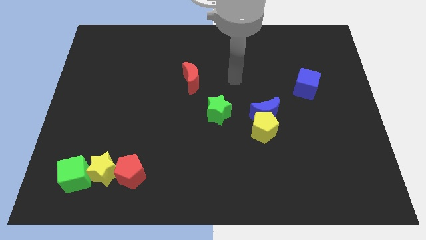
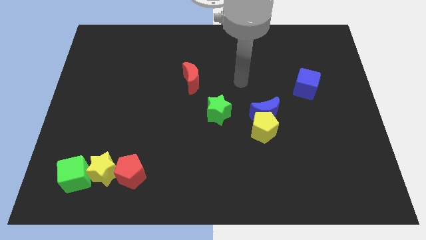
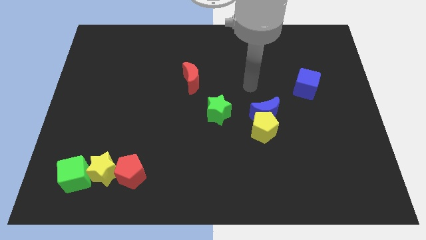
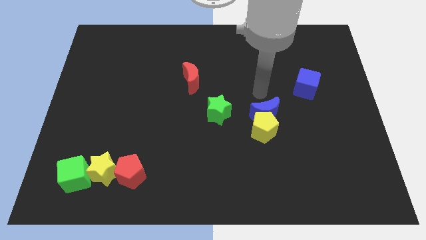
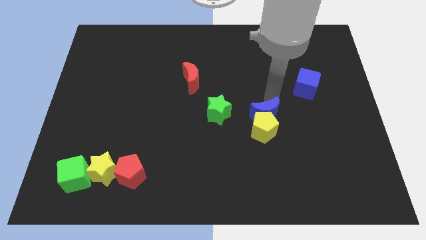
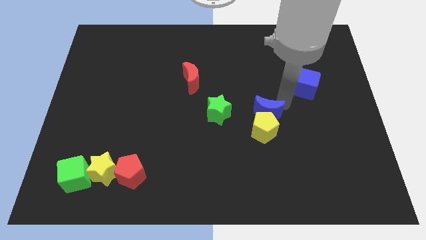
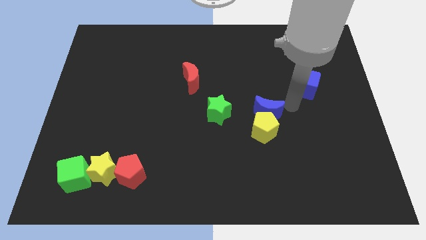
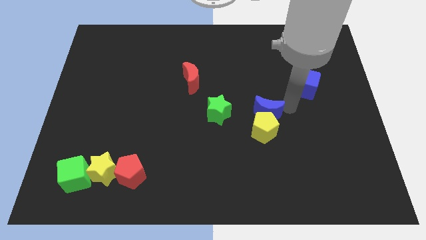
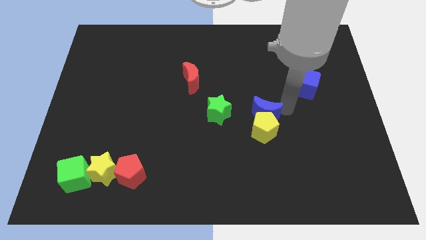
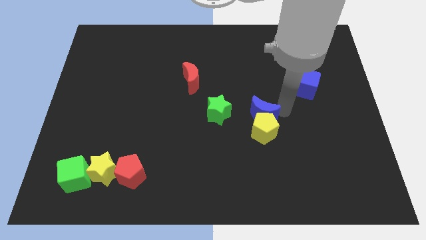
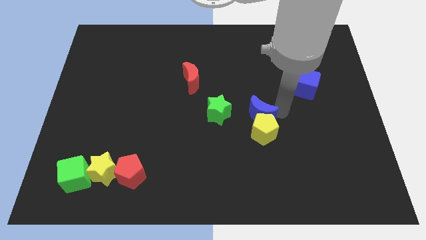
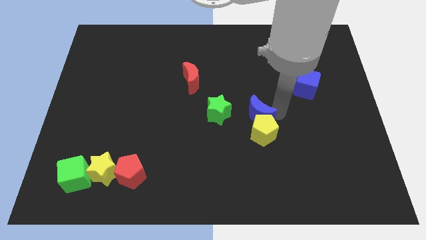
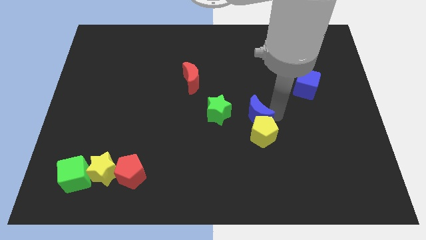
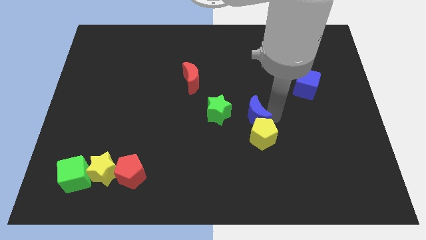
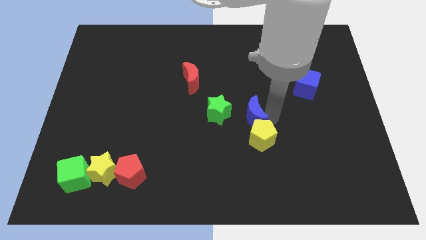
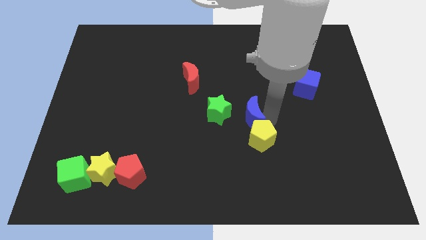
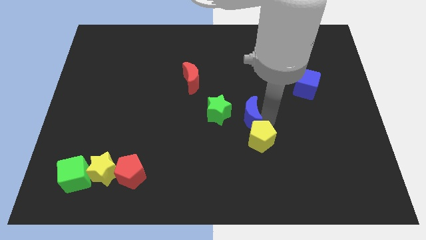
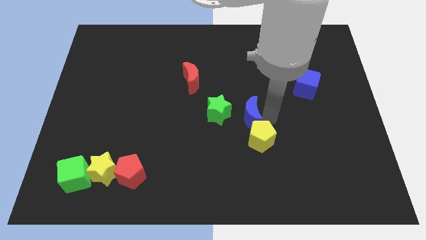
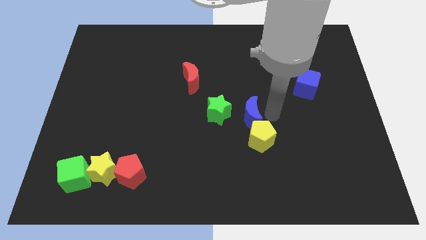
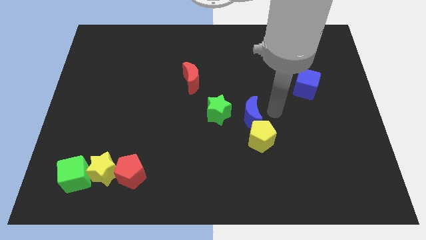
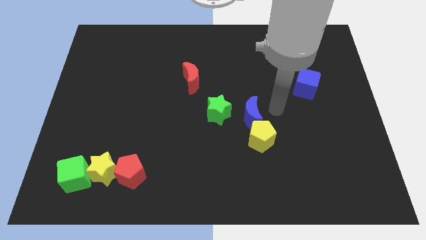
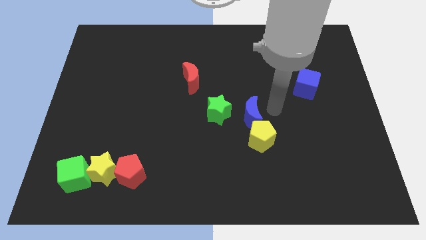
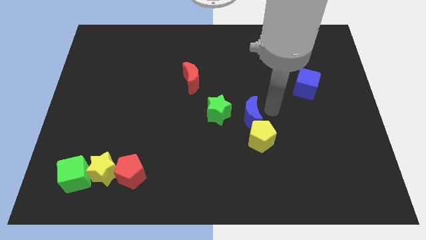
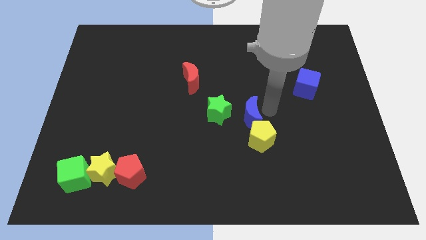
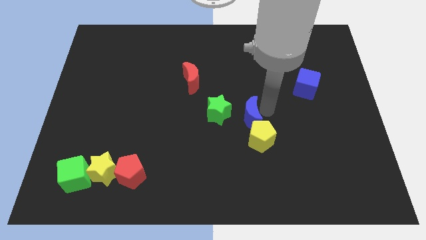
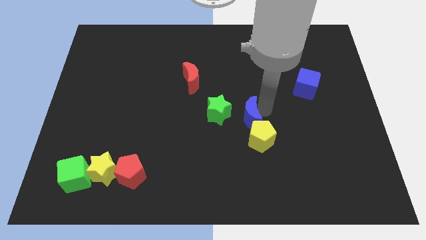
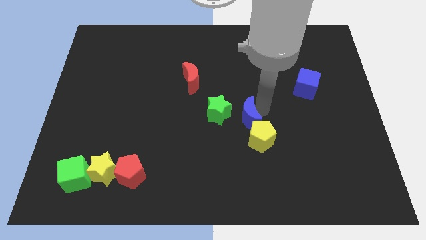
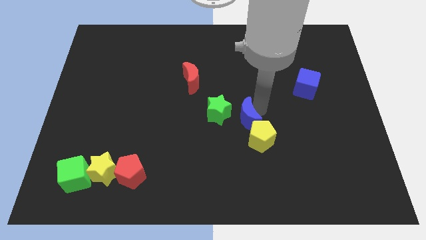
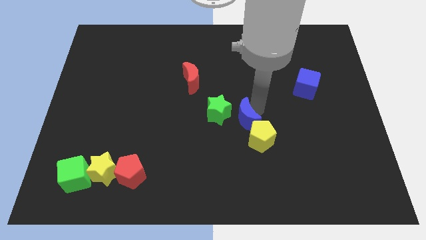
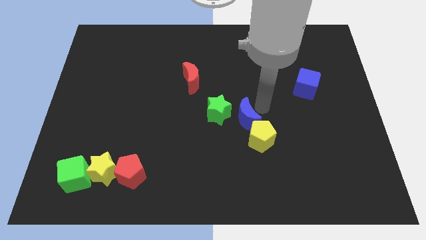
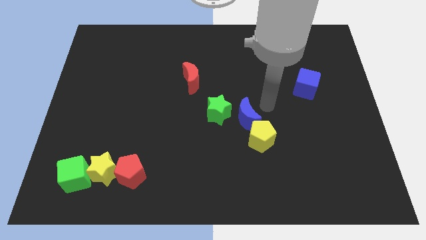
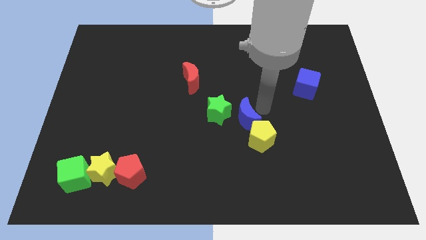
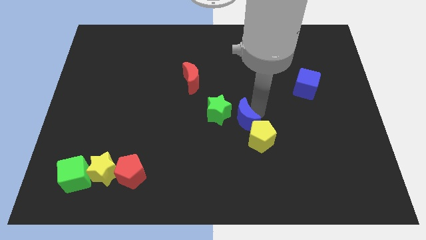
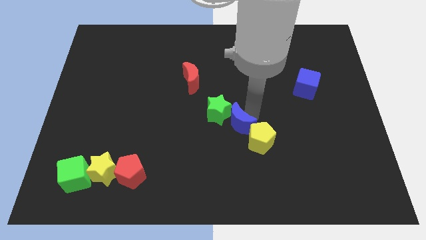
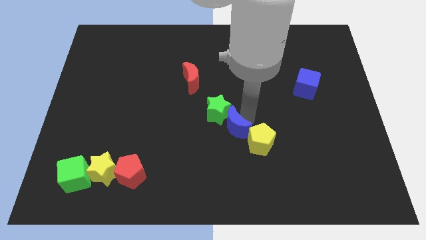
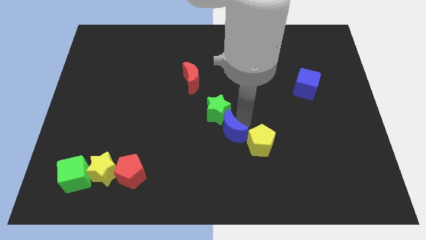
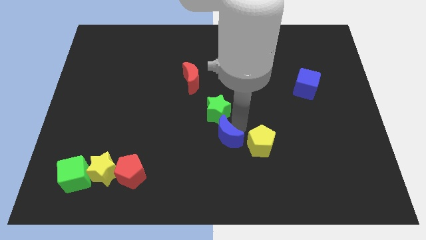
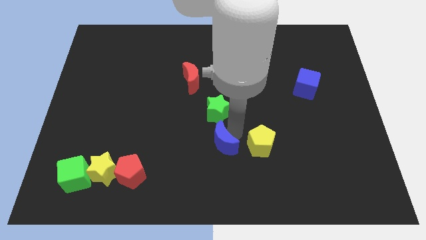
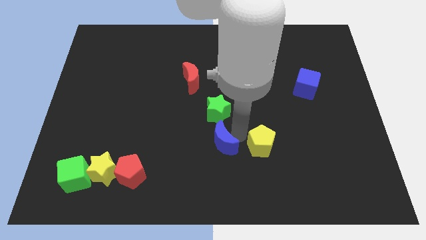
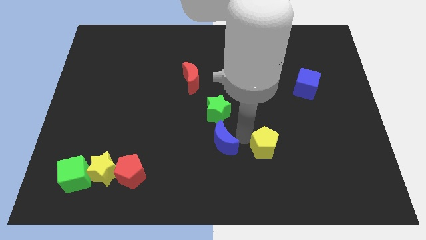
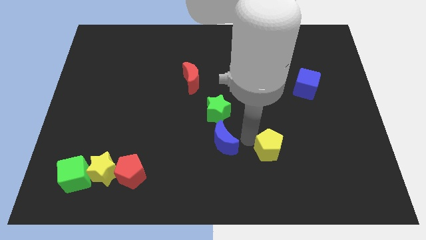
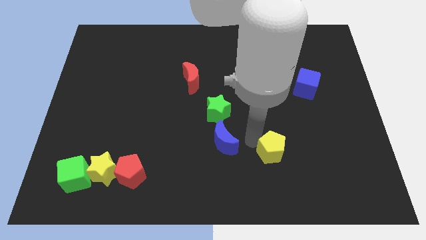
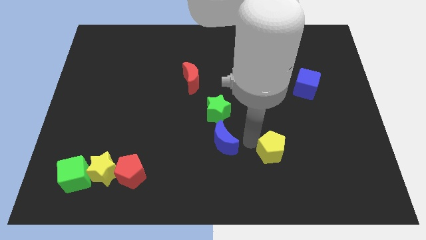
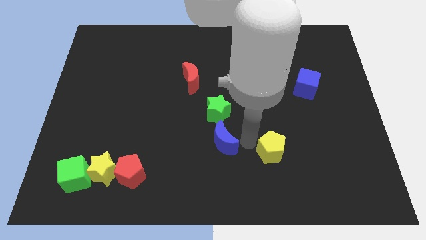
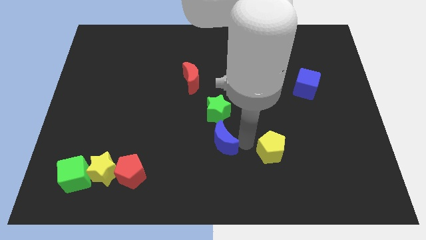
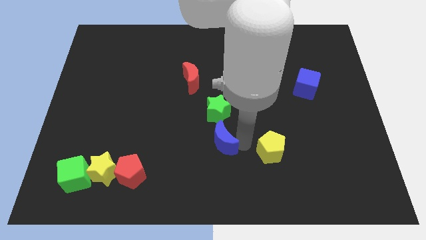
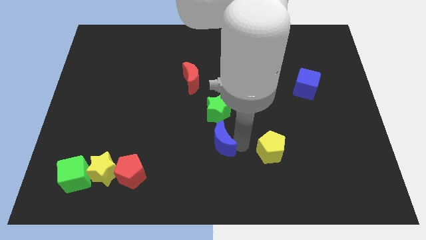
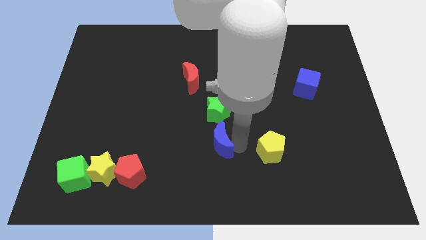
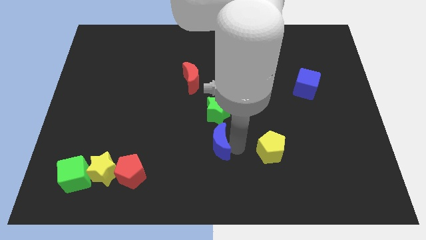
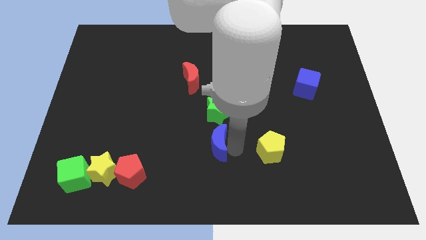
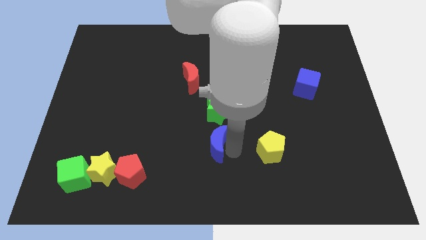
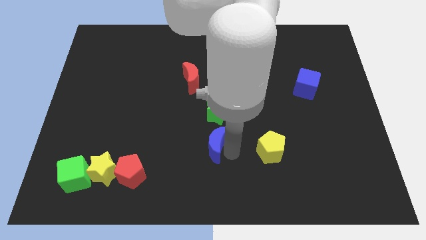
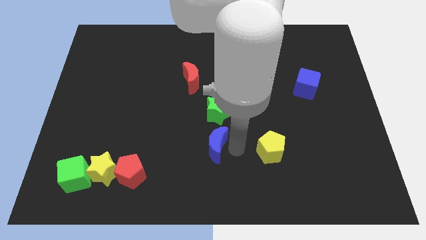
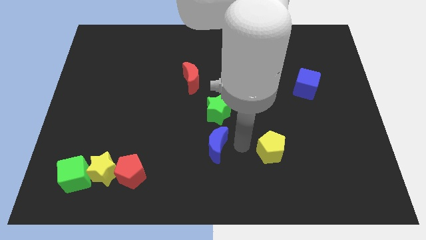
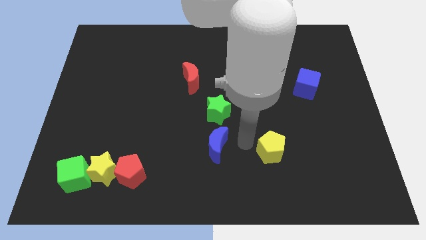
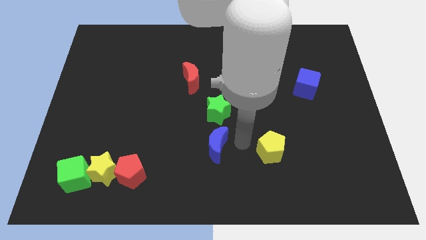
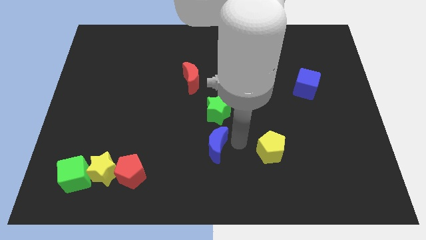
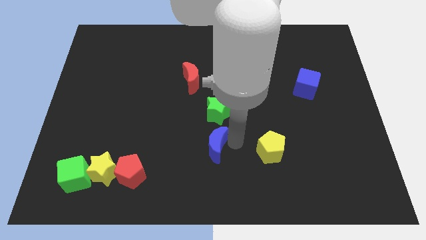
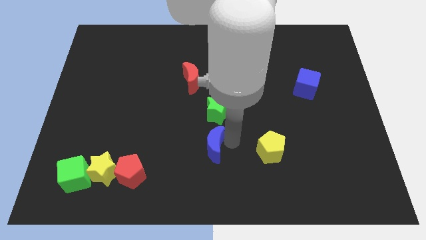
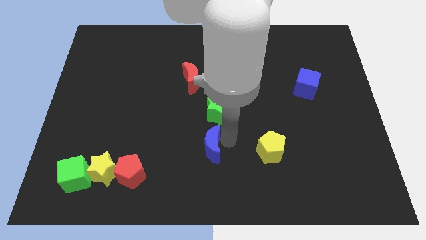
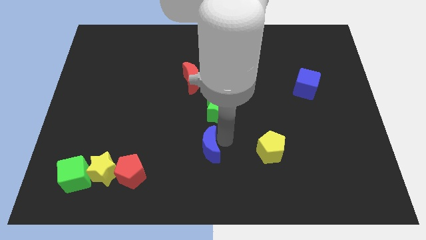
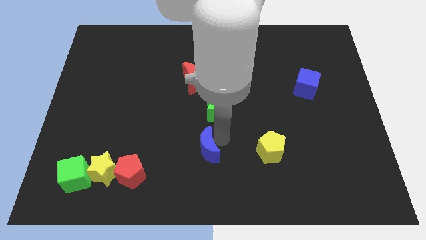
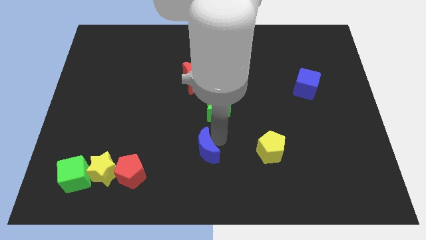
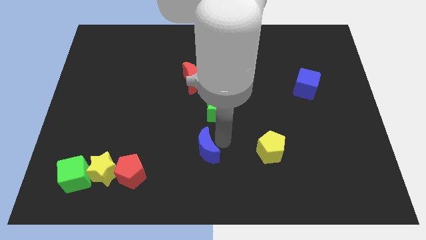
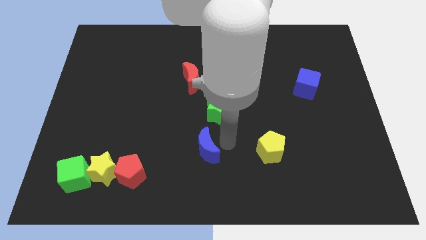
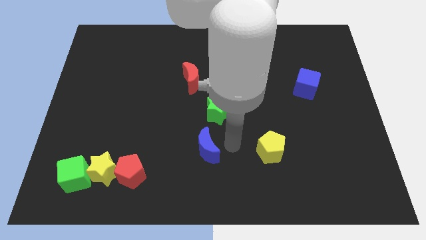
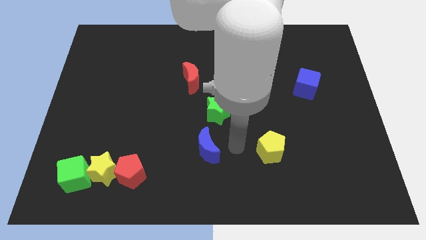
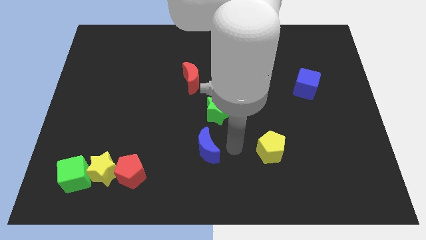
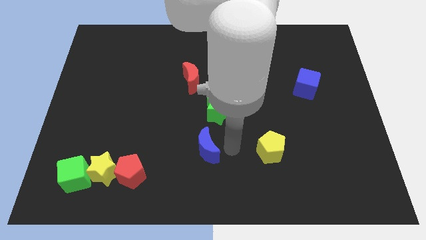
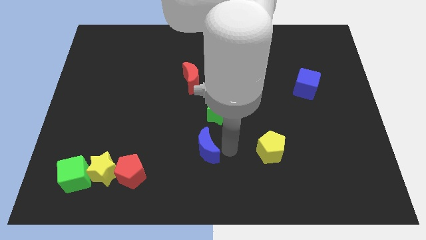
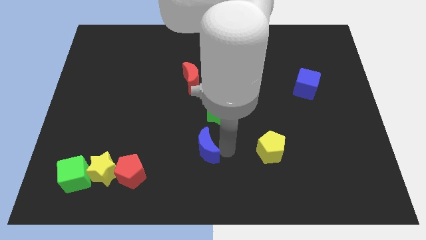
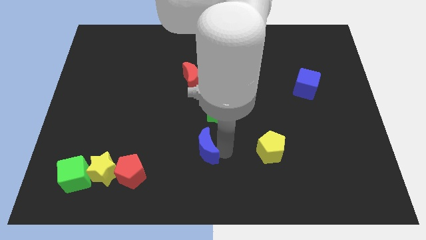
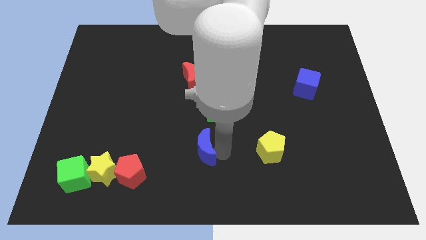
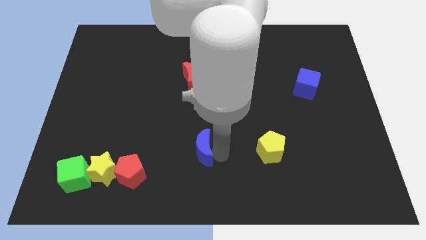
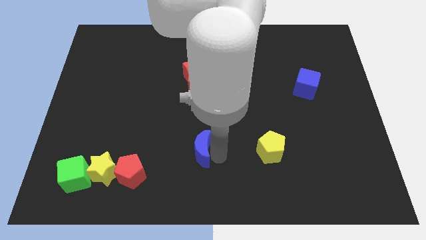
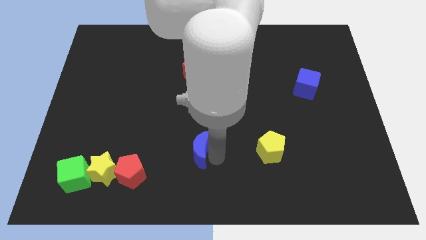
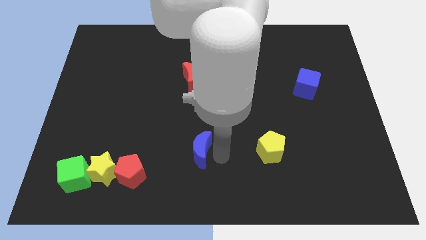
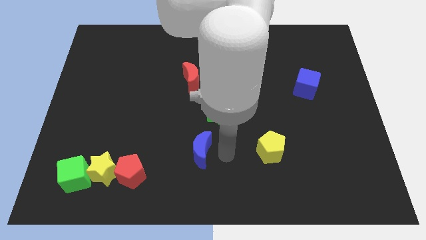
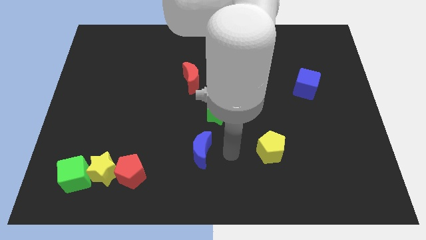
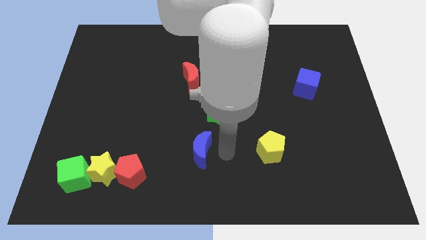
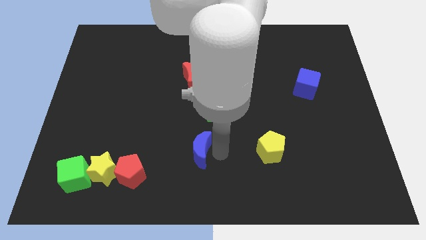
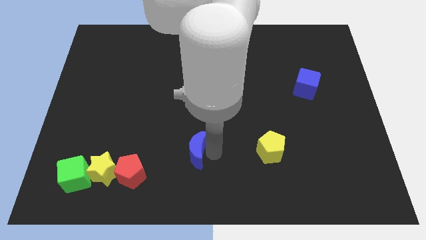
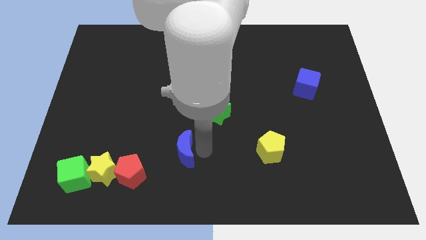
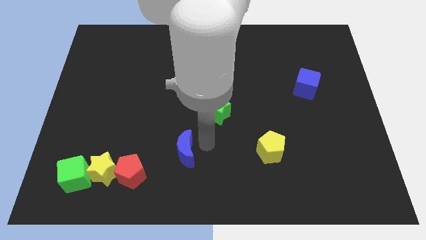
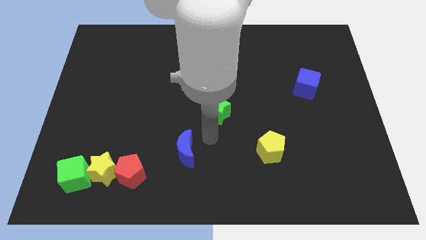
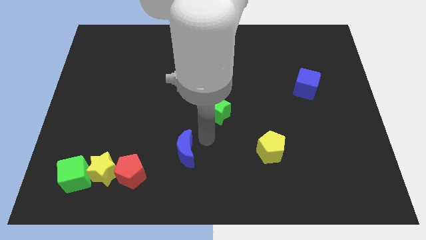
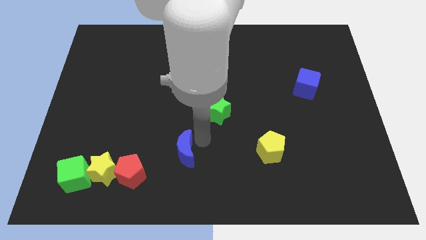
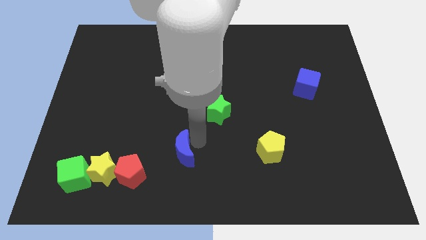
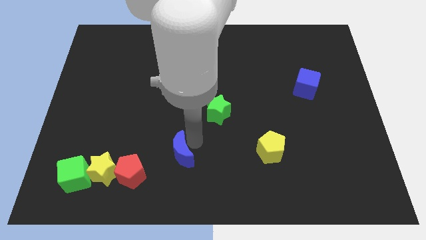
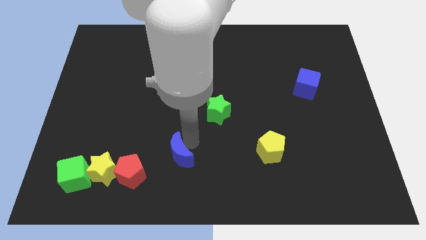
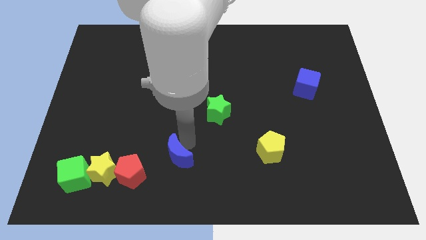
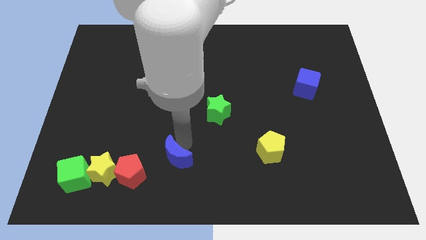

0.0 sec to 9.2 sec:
put the blue moon just right of the yellow star
